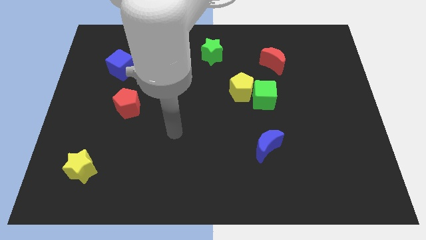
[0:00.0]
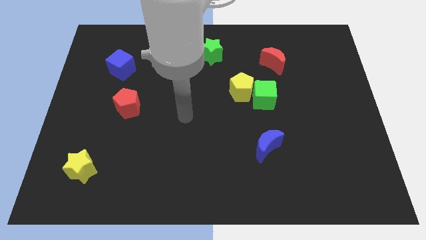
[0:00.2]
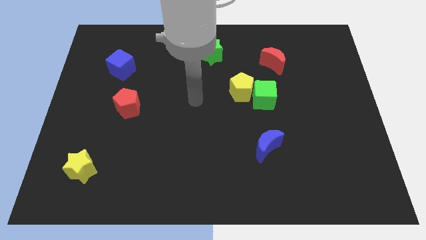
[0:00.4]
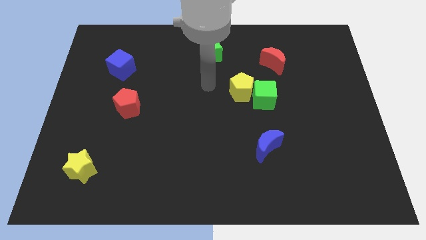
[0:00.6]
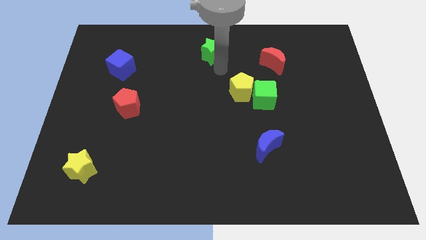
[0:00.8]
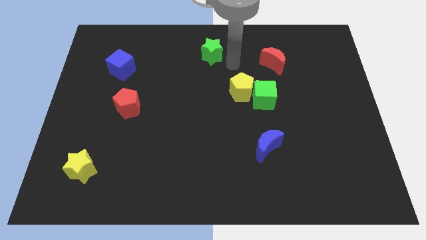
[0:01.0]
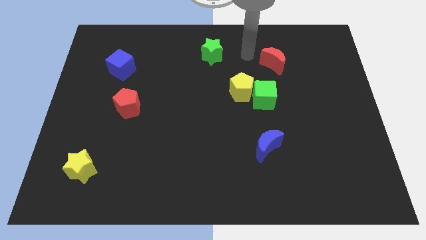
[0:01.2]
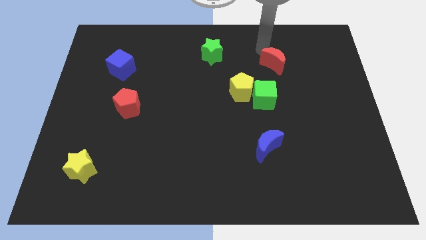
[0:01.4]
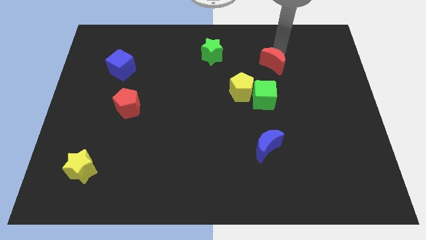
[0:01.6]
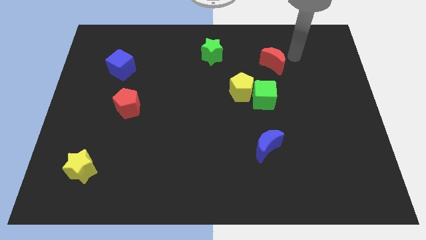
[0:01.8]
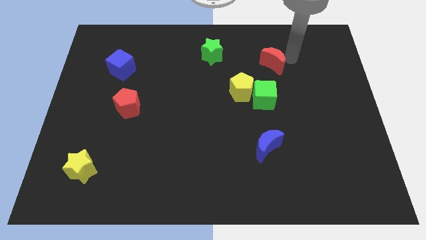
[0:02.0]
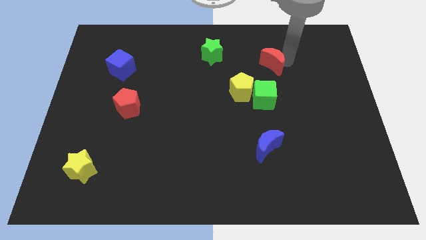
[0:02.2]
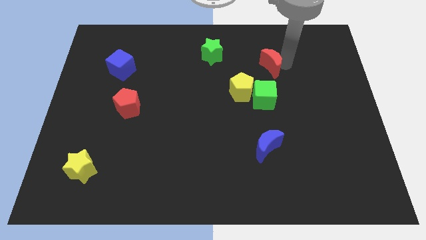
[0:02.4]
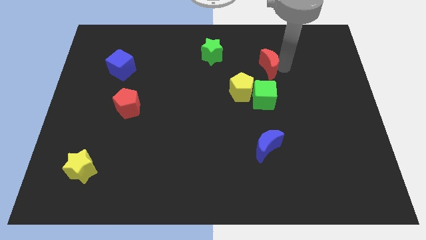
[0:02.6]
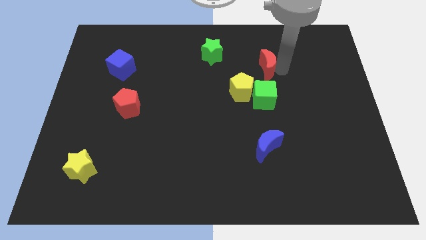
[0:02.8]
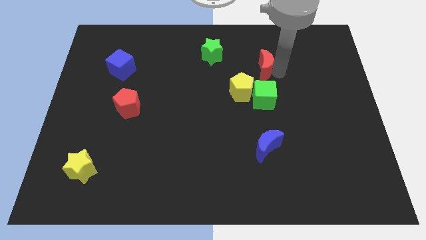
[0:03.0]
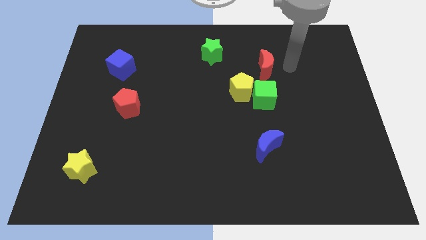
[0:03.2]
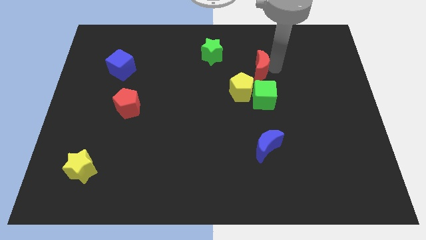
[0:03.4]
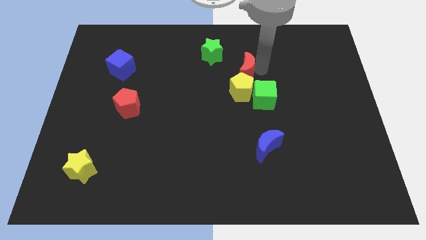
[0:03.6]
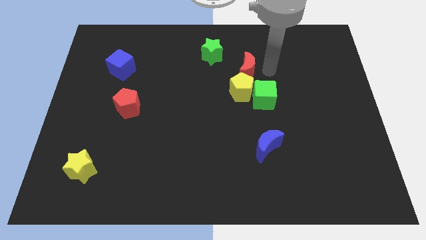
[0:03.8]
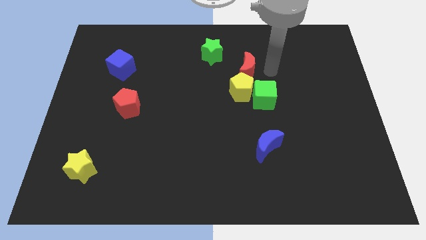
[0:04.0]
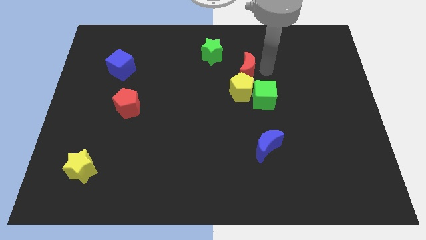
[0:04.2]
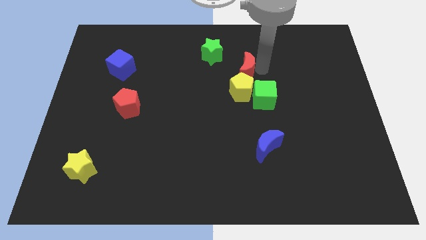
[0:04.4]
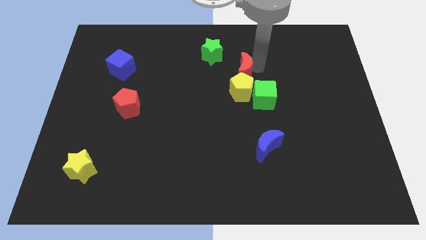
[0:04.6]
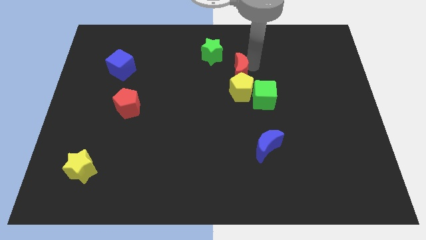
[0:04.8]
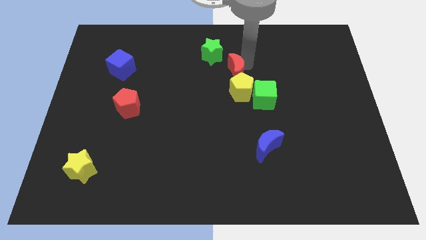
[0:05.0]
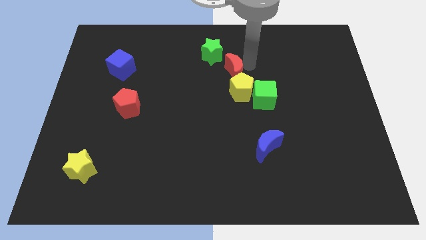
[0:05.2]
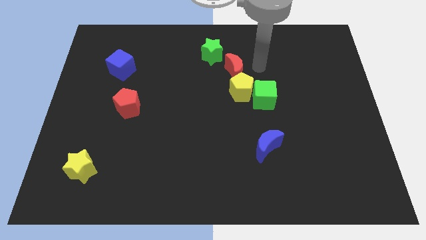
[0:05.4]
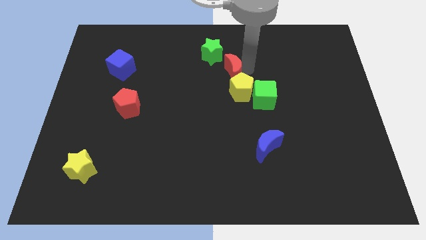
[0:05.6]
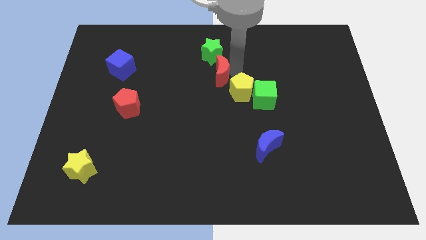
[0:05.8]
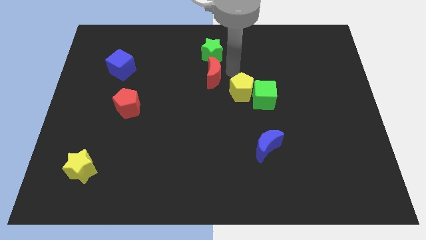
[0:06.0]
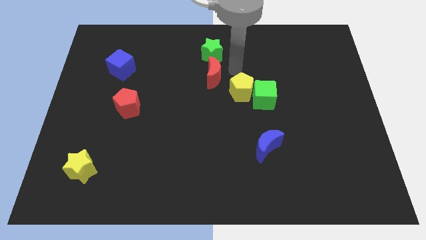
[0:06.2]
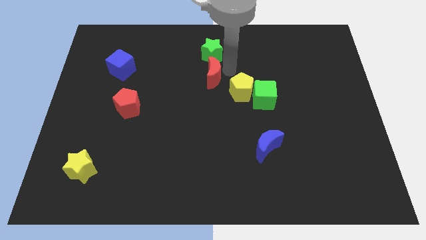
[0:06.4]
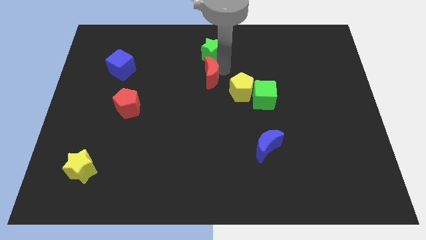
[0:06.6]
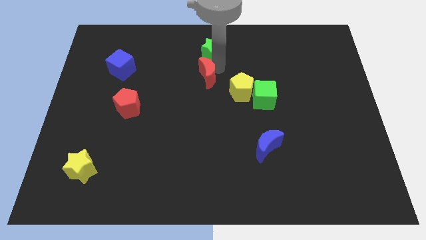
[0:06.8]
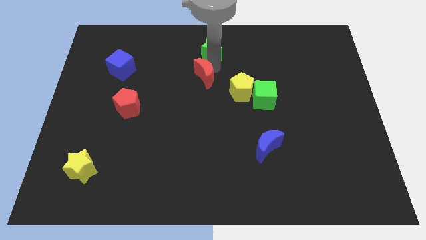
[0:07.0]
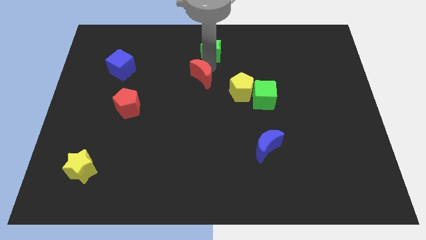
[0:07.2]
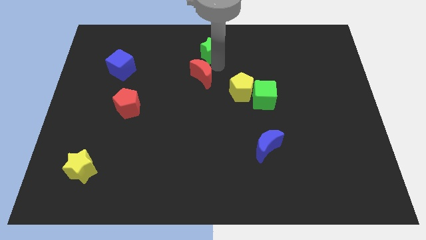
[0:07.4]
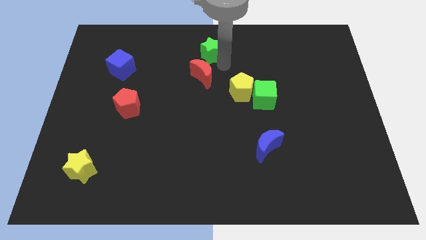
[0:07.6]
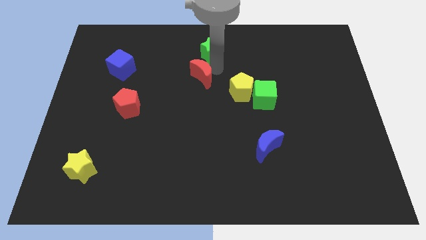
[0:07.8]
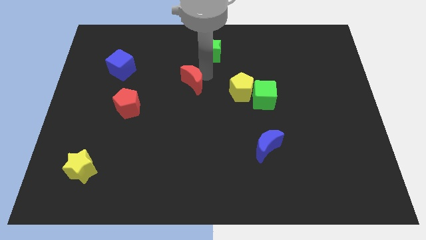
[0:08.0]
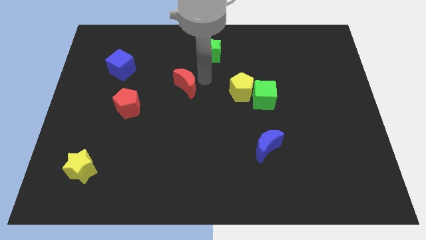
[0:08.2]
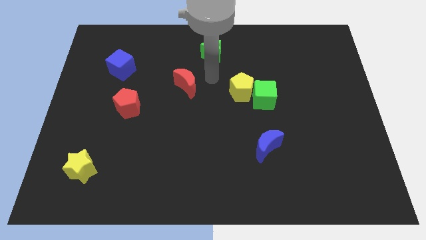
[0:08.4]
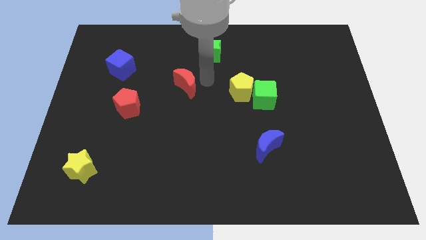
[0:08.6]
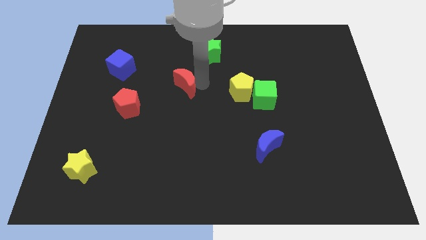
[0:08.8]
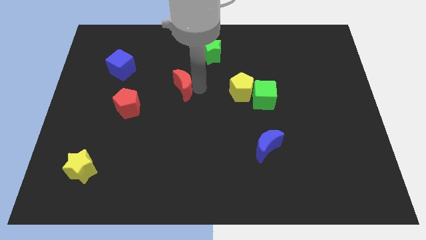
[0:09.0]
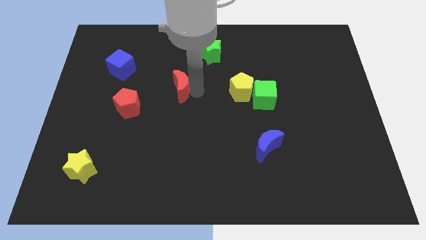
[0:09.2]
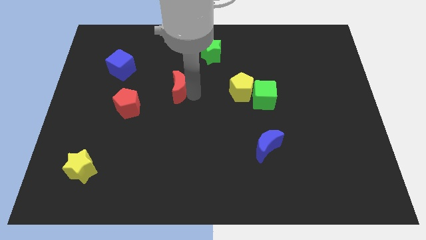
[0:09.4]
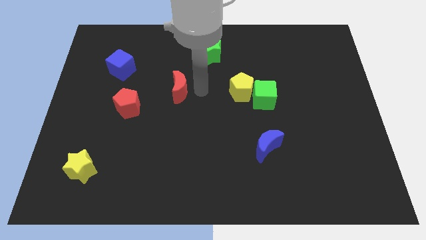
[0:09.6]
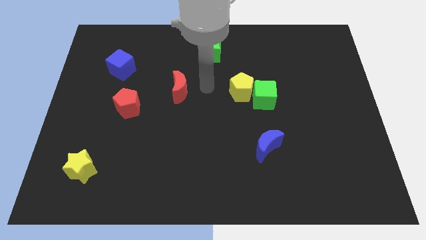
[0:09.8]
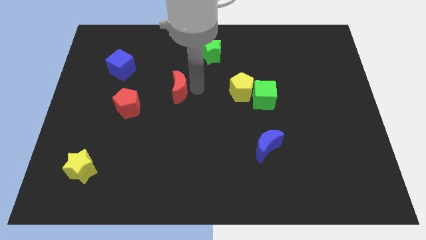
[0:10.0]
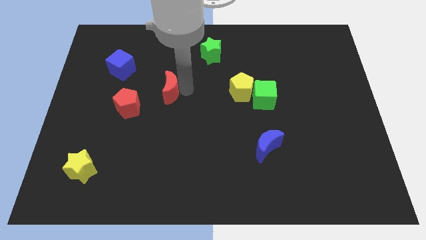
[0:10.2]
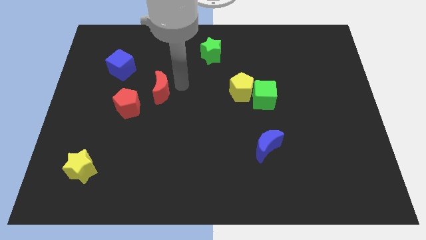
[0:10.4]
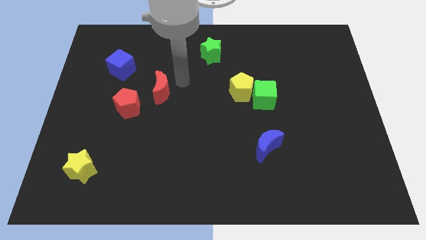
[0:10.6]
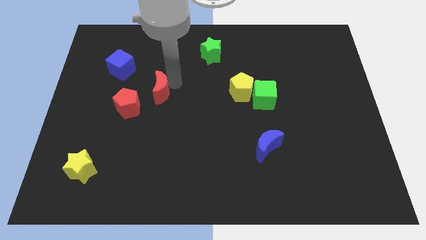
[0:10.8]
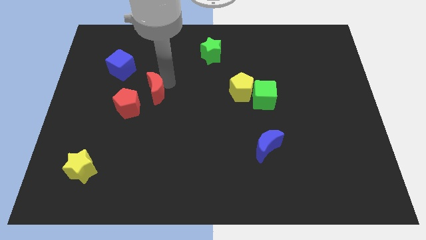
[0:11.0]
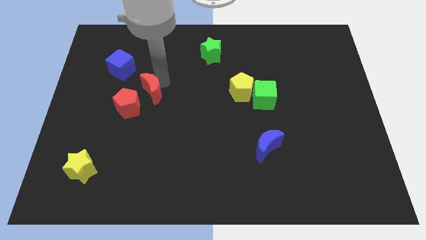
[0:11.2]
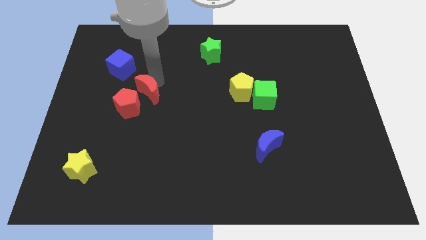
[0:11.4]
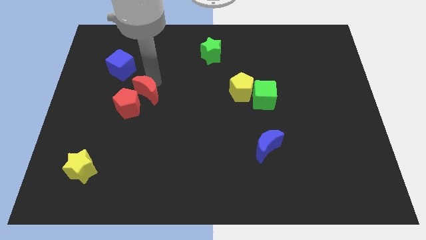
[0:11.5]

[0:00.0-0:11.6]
slide the red moon close to the red pentagon

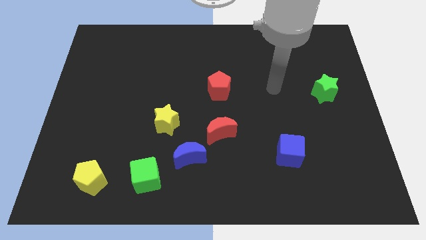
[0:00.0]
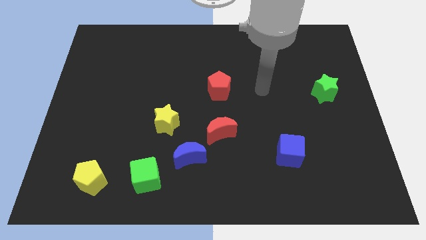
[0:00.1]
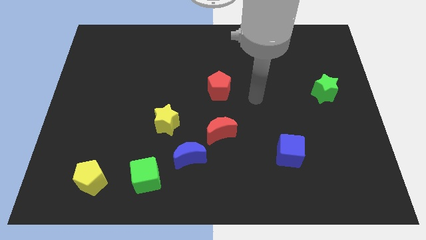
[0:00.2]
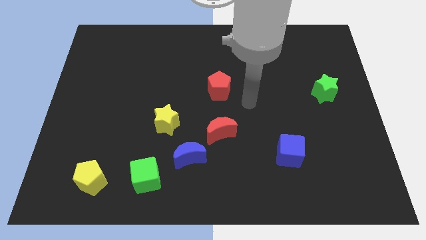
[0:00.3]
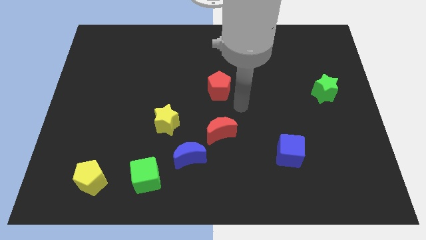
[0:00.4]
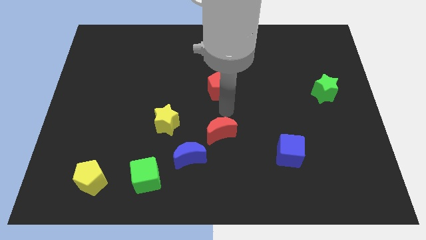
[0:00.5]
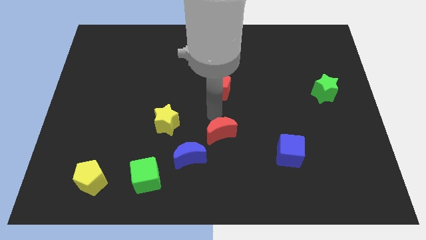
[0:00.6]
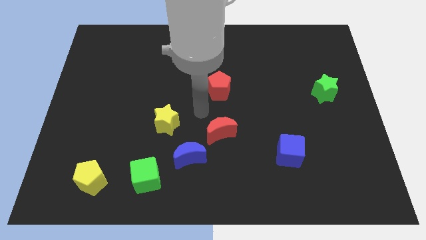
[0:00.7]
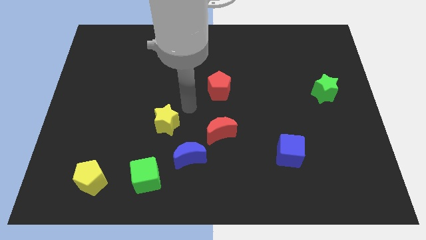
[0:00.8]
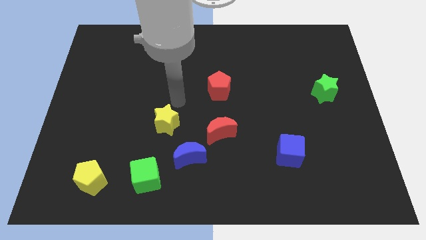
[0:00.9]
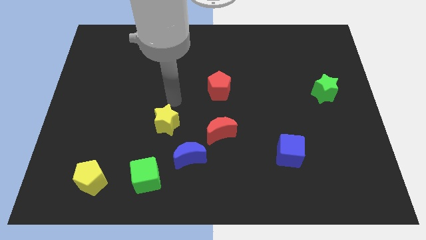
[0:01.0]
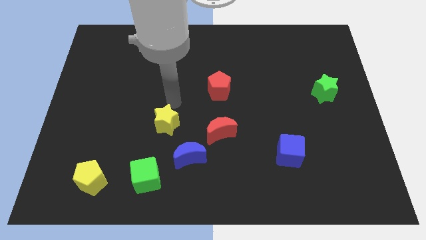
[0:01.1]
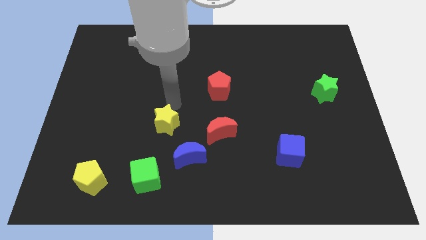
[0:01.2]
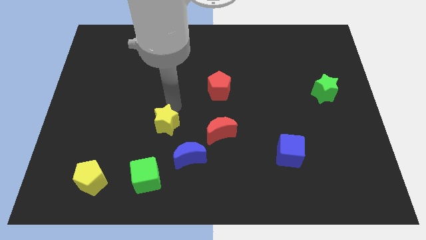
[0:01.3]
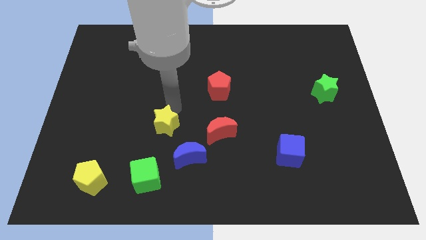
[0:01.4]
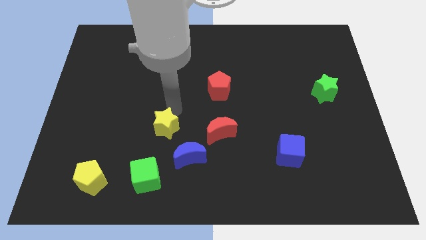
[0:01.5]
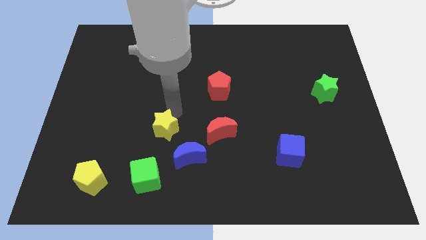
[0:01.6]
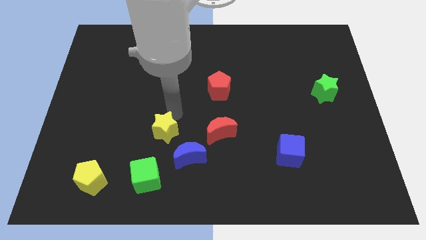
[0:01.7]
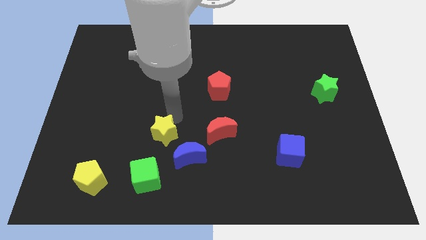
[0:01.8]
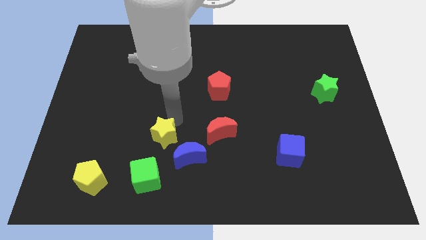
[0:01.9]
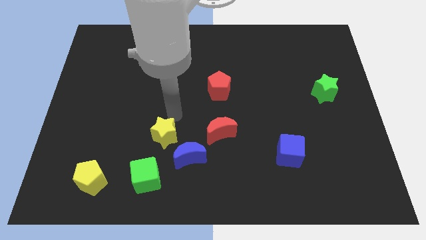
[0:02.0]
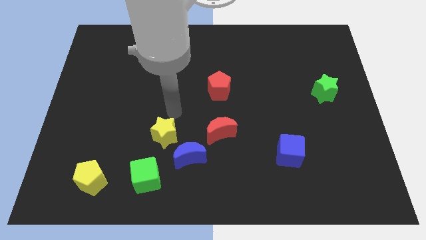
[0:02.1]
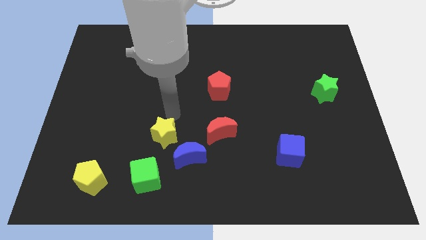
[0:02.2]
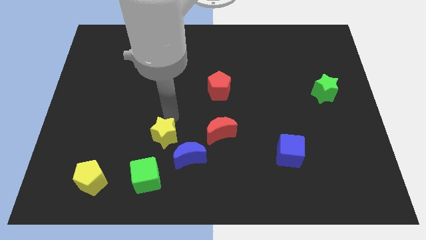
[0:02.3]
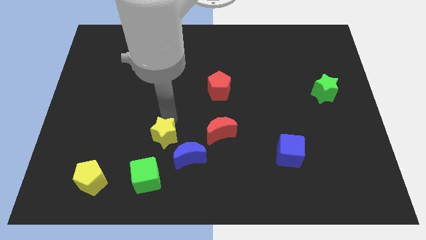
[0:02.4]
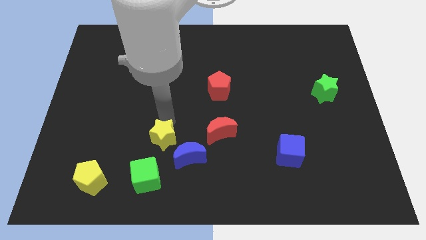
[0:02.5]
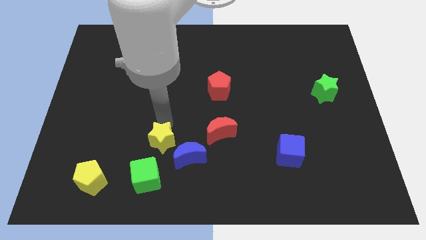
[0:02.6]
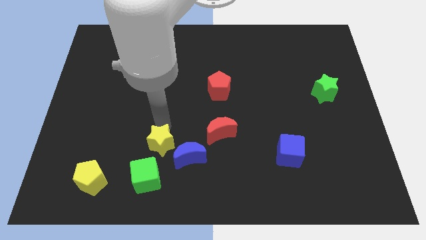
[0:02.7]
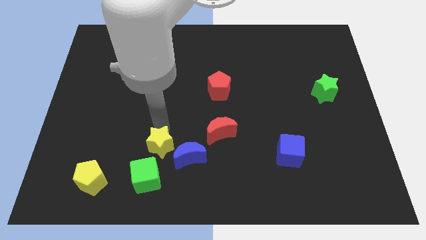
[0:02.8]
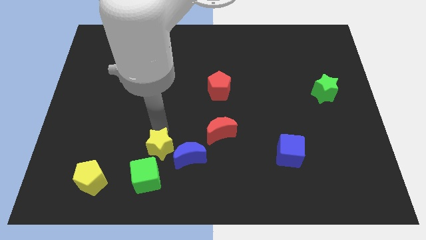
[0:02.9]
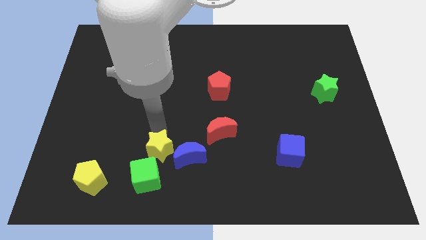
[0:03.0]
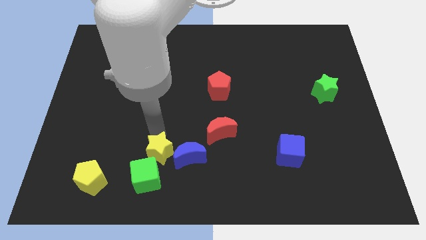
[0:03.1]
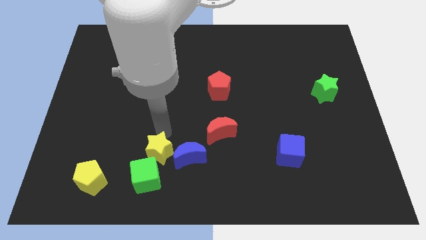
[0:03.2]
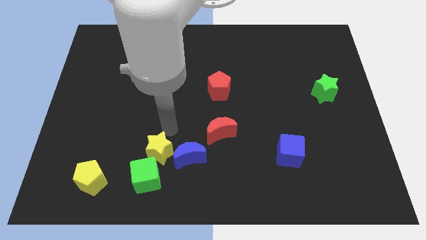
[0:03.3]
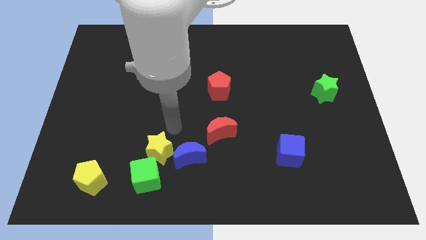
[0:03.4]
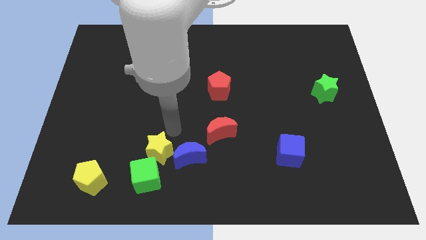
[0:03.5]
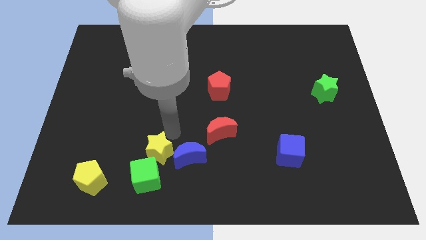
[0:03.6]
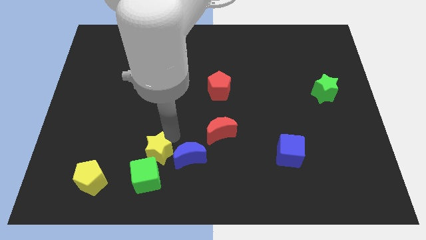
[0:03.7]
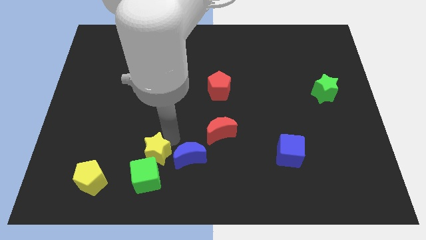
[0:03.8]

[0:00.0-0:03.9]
push the yellow star close to the green cube
